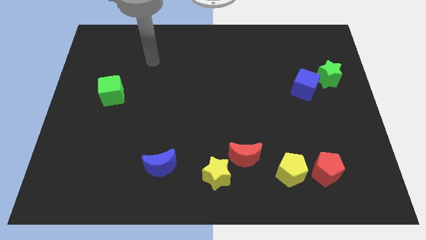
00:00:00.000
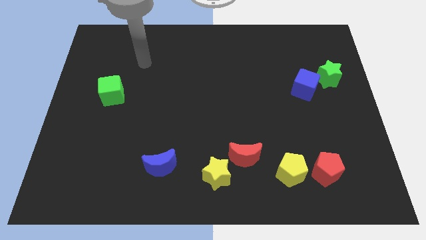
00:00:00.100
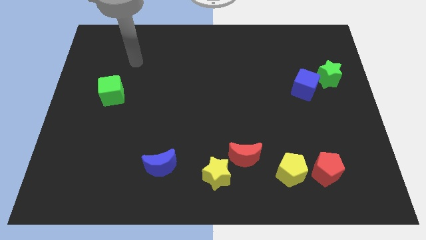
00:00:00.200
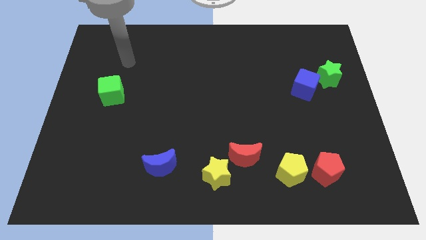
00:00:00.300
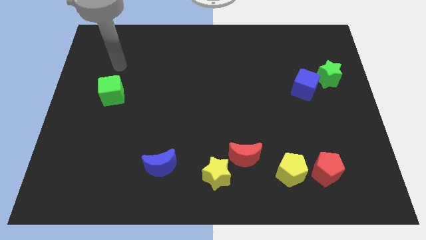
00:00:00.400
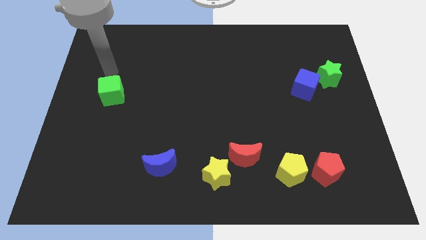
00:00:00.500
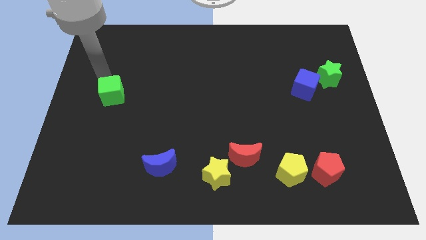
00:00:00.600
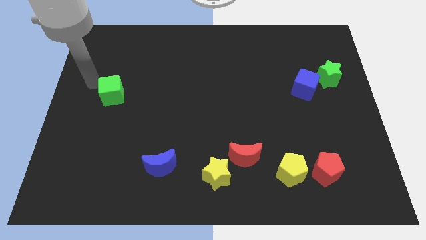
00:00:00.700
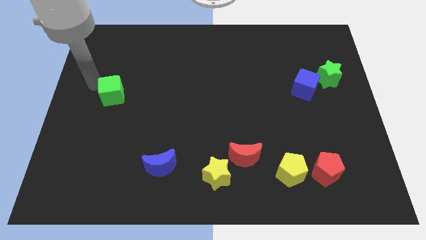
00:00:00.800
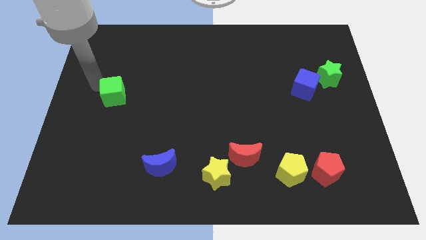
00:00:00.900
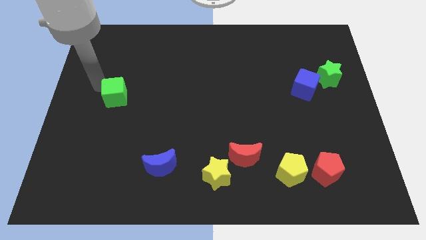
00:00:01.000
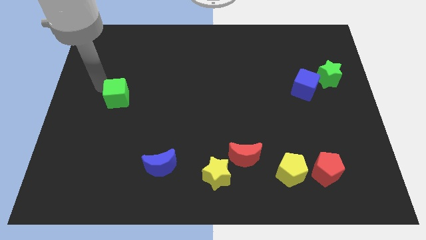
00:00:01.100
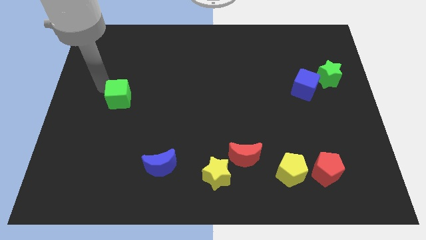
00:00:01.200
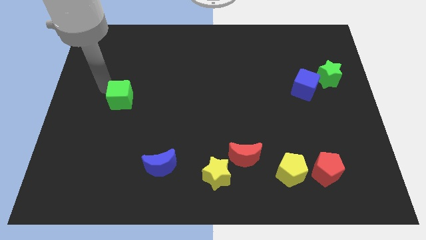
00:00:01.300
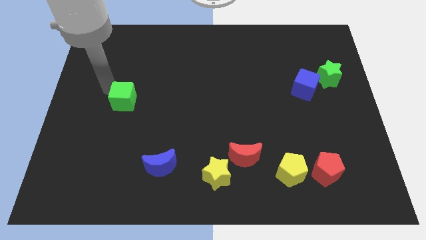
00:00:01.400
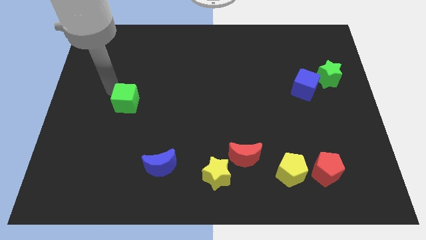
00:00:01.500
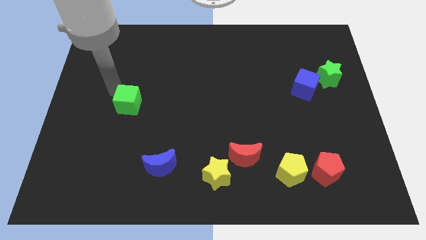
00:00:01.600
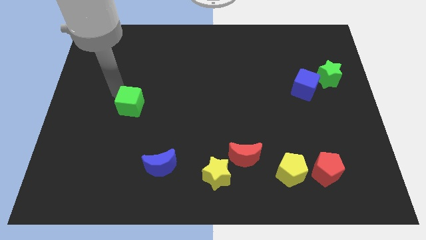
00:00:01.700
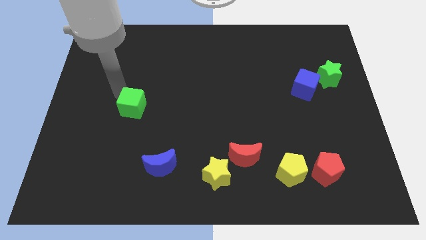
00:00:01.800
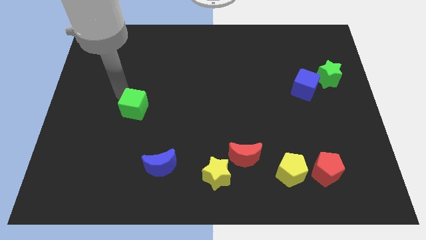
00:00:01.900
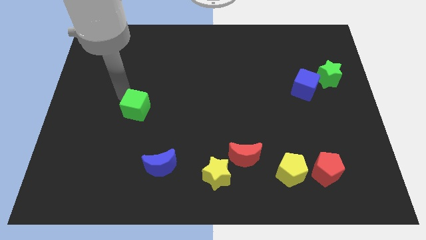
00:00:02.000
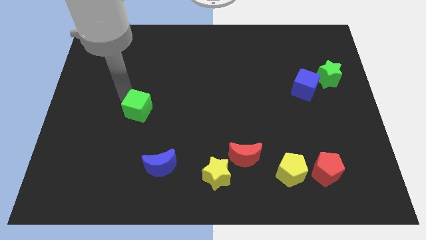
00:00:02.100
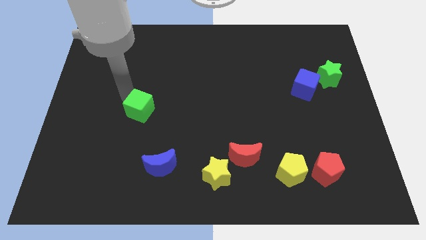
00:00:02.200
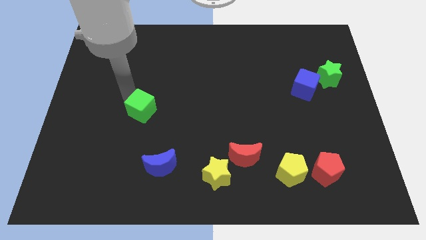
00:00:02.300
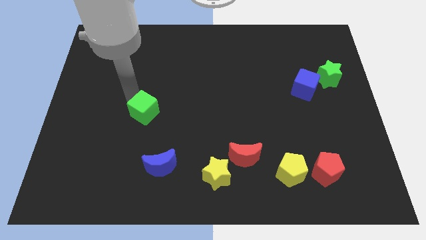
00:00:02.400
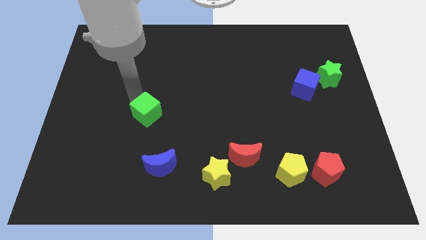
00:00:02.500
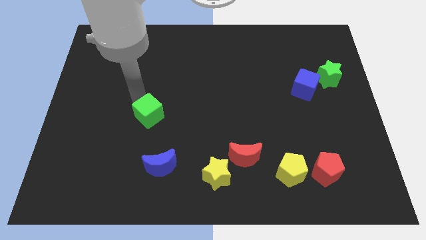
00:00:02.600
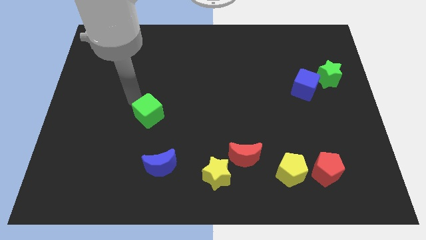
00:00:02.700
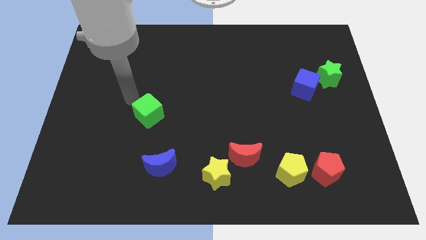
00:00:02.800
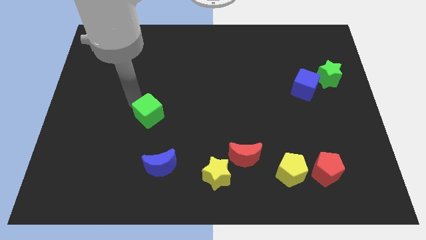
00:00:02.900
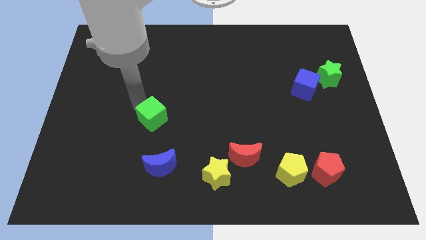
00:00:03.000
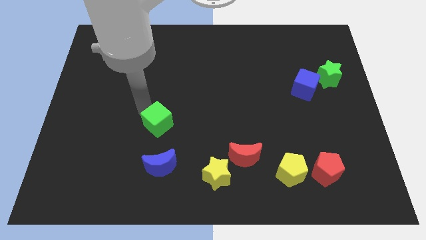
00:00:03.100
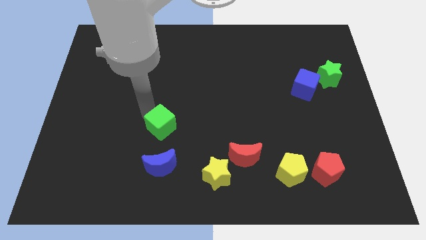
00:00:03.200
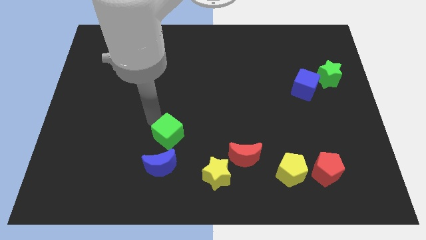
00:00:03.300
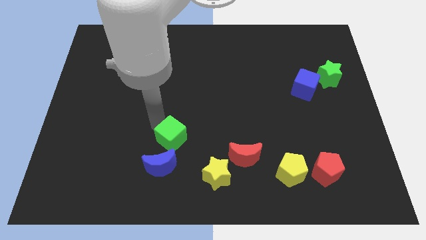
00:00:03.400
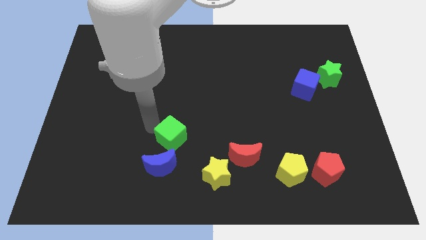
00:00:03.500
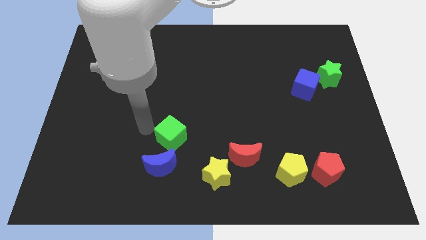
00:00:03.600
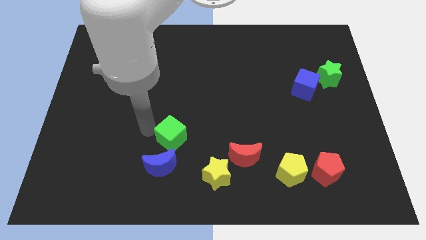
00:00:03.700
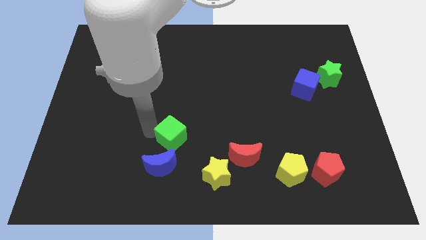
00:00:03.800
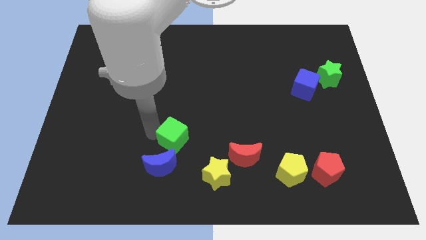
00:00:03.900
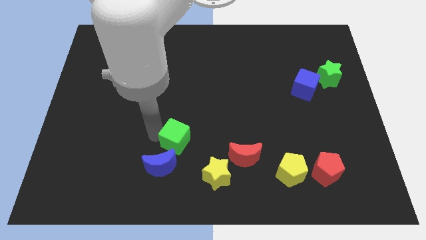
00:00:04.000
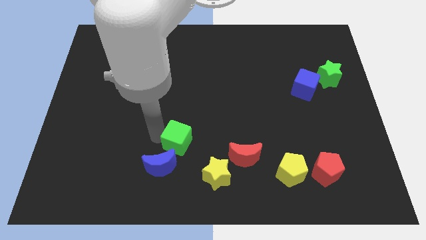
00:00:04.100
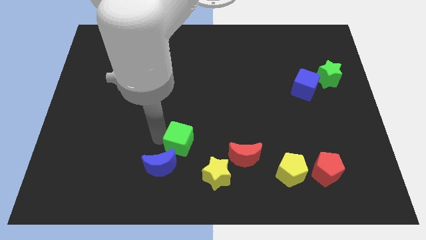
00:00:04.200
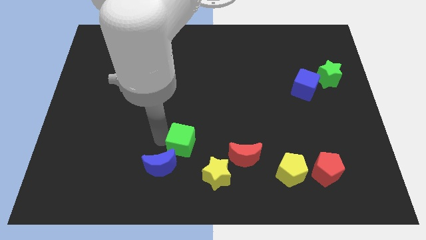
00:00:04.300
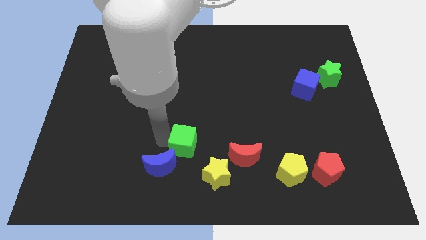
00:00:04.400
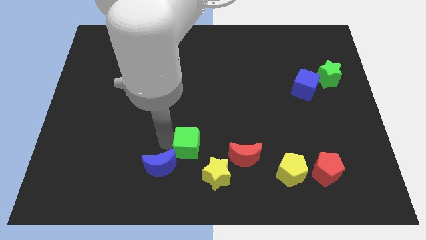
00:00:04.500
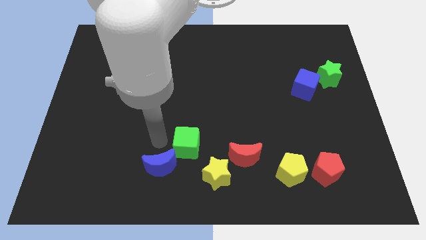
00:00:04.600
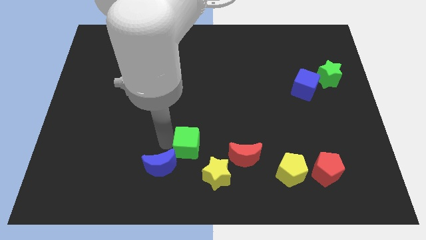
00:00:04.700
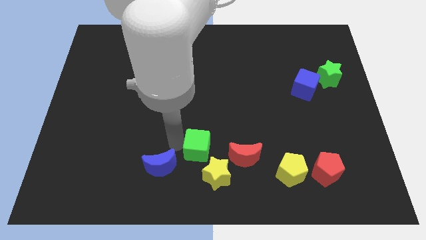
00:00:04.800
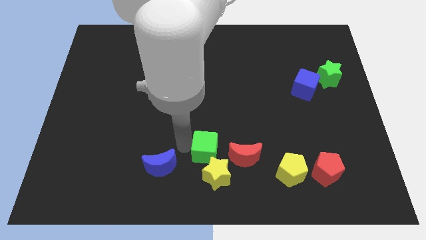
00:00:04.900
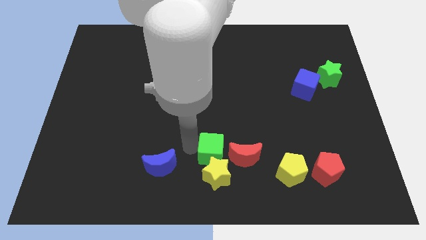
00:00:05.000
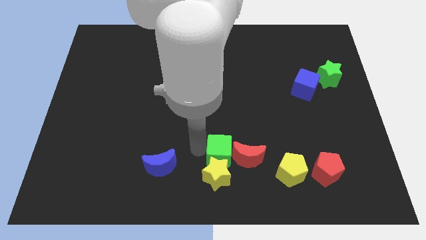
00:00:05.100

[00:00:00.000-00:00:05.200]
slide the green cube to the red moon

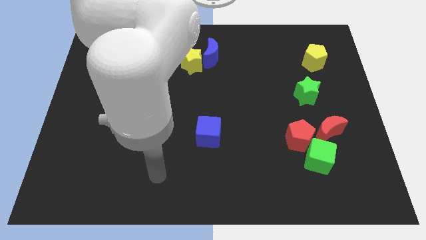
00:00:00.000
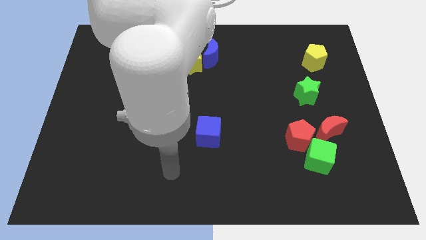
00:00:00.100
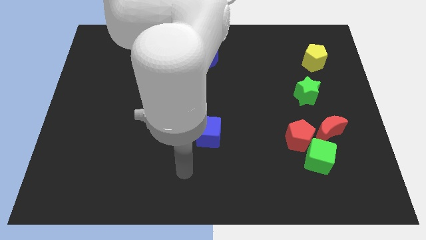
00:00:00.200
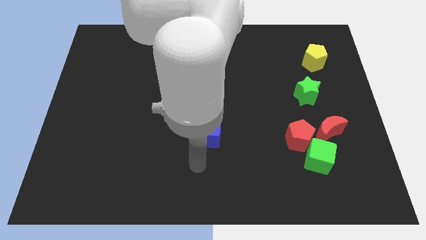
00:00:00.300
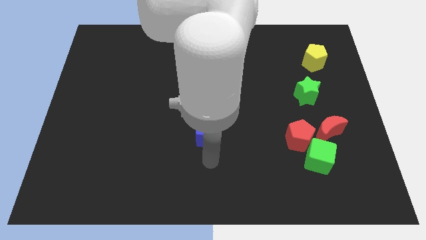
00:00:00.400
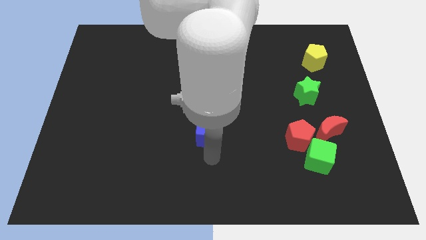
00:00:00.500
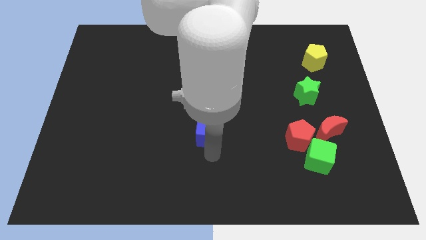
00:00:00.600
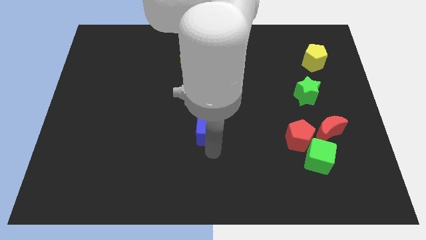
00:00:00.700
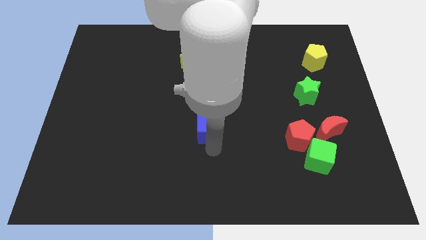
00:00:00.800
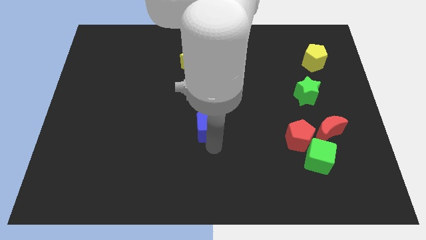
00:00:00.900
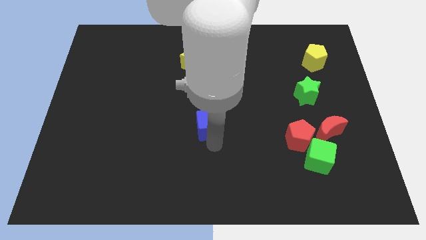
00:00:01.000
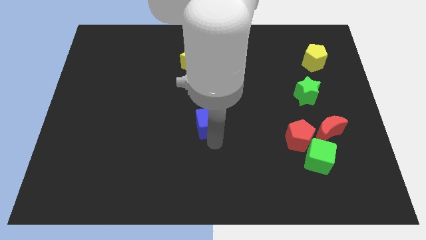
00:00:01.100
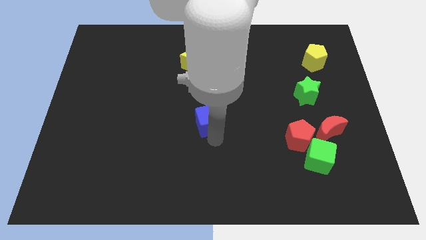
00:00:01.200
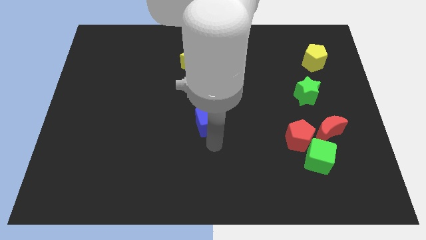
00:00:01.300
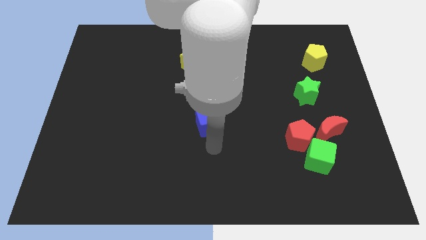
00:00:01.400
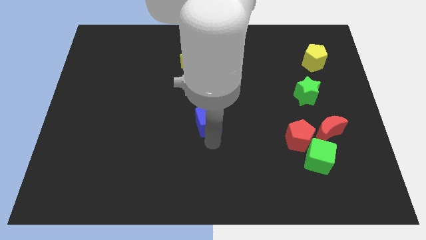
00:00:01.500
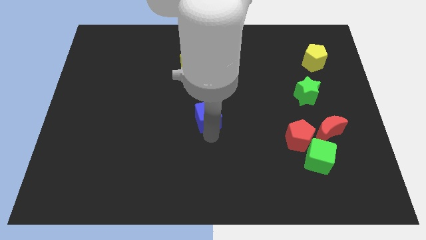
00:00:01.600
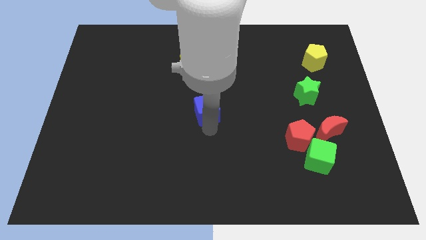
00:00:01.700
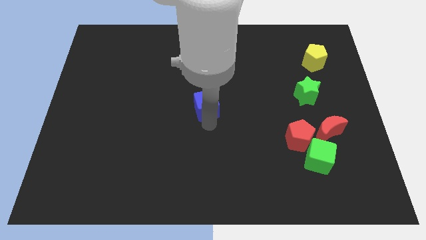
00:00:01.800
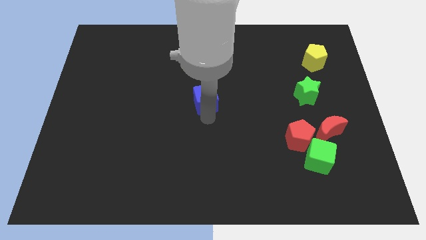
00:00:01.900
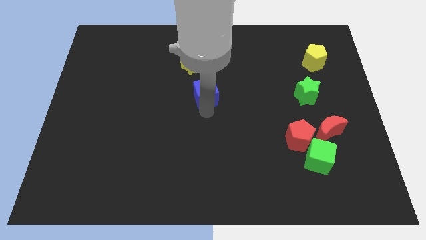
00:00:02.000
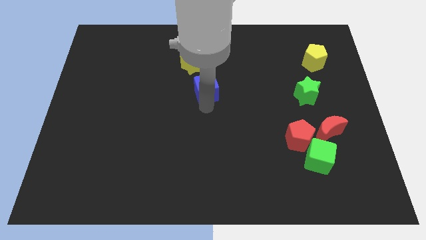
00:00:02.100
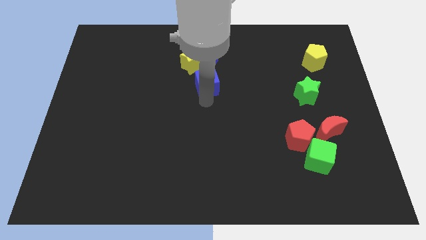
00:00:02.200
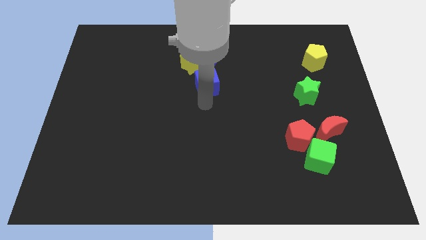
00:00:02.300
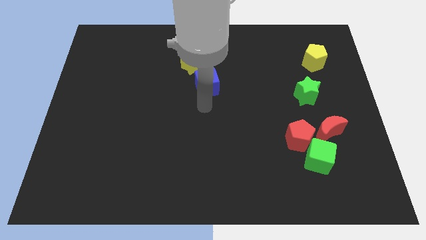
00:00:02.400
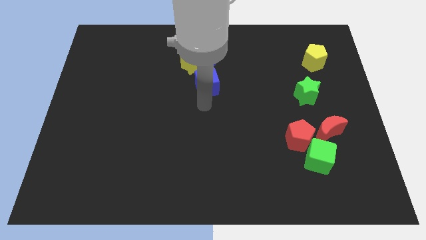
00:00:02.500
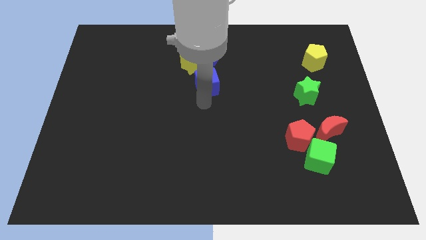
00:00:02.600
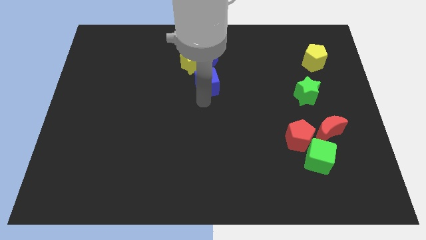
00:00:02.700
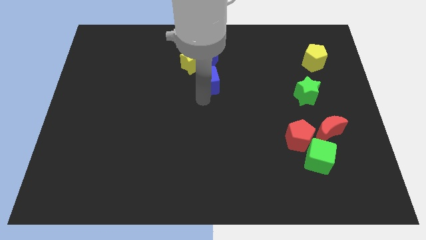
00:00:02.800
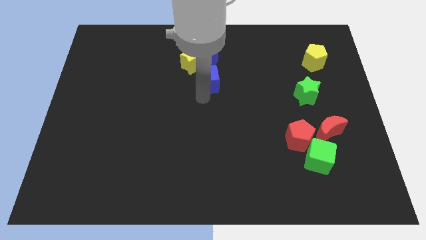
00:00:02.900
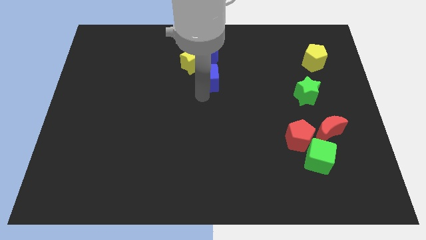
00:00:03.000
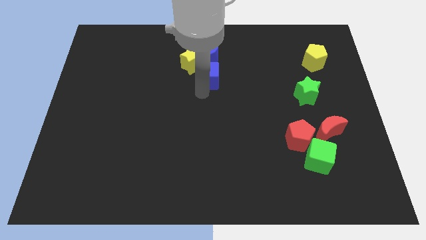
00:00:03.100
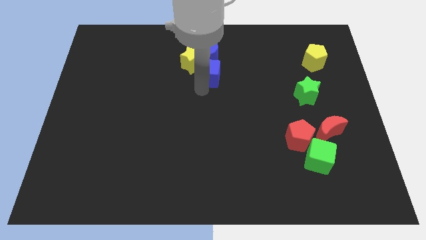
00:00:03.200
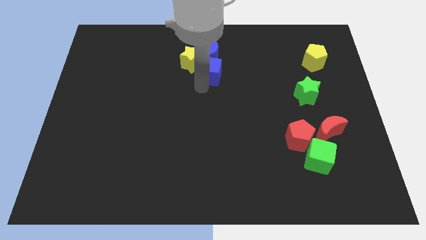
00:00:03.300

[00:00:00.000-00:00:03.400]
move the blue cube close to the blue moon
